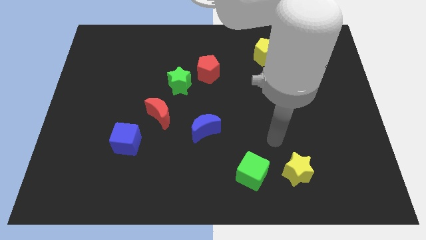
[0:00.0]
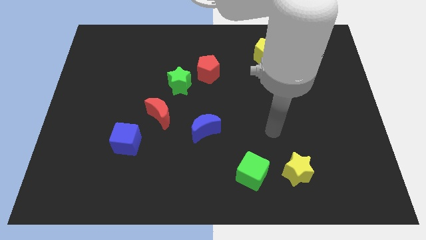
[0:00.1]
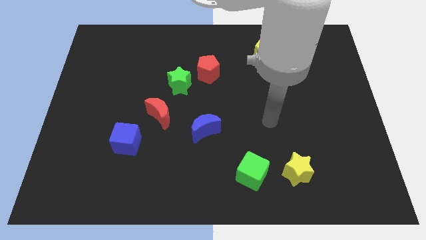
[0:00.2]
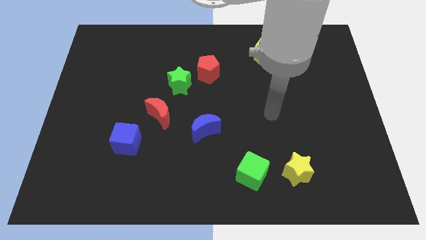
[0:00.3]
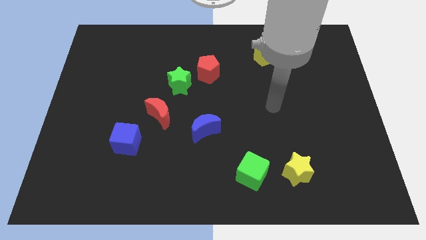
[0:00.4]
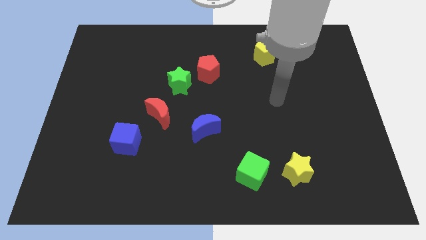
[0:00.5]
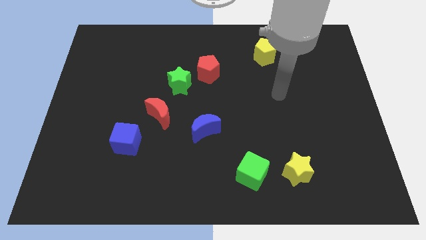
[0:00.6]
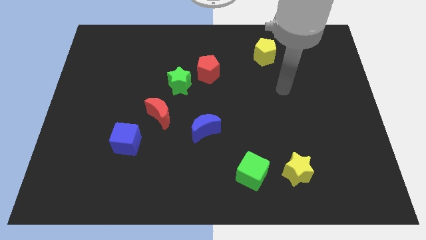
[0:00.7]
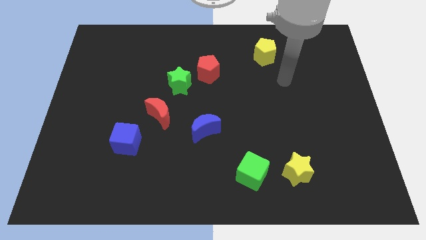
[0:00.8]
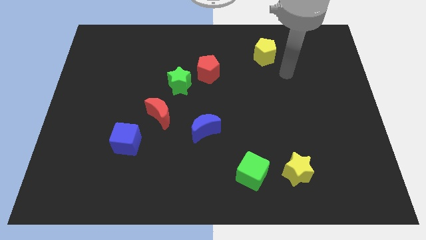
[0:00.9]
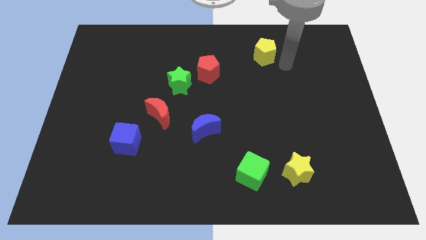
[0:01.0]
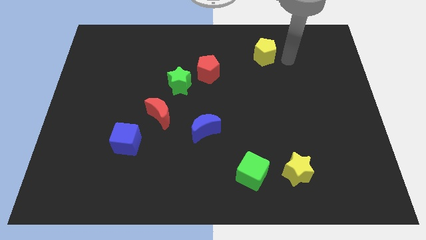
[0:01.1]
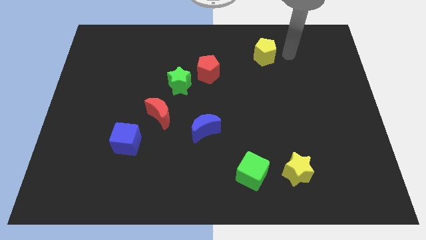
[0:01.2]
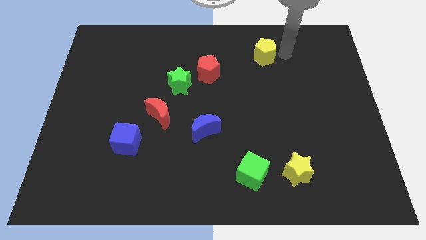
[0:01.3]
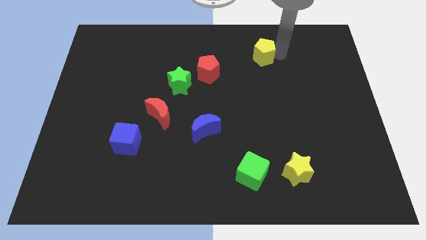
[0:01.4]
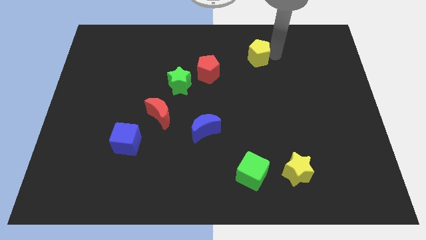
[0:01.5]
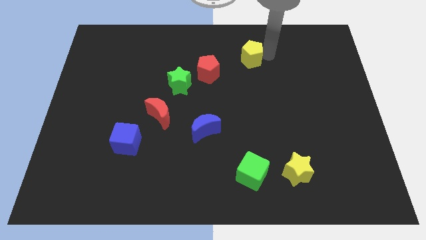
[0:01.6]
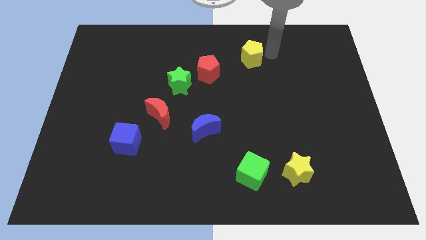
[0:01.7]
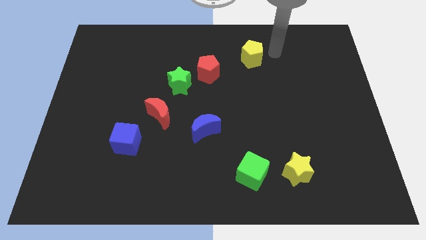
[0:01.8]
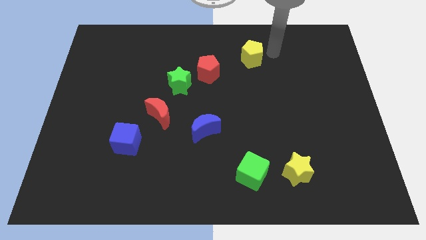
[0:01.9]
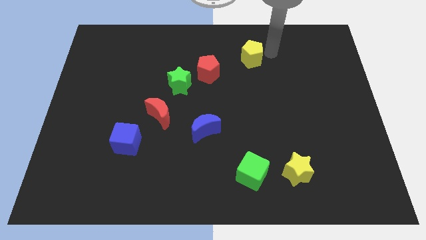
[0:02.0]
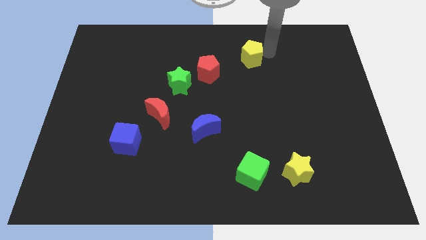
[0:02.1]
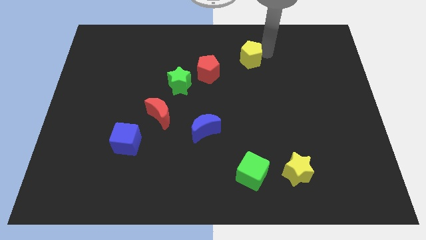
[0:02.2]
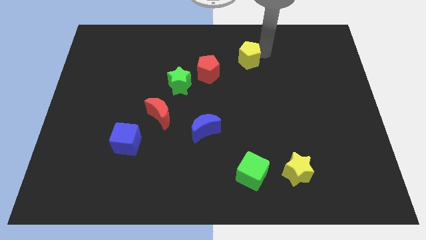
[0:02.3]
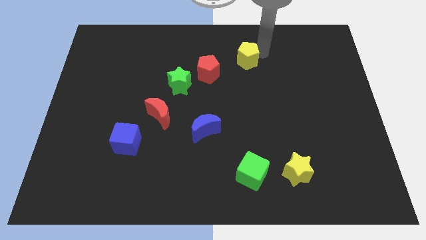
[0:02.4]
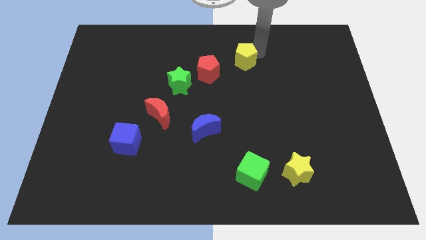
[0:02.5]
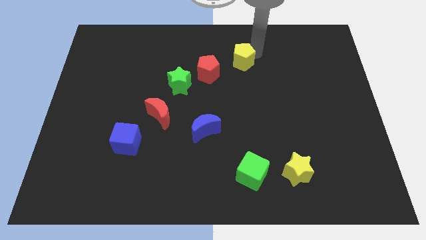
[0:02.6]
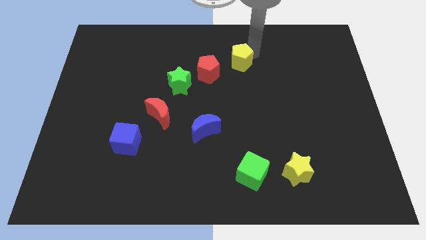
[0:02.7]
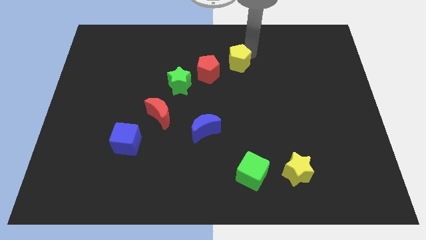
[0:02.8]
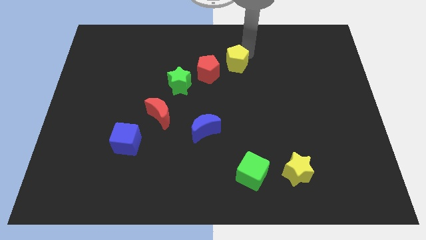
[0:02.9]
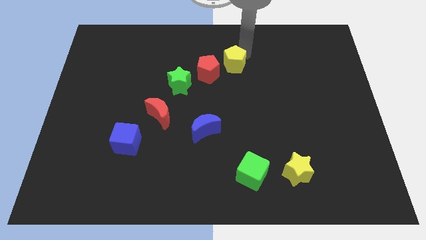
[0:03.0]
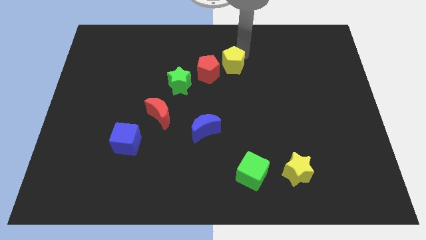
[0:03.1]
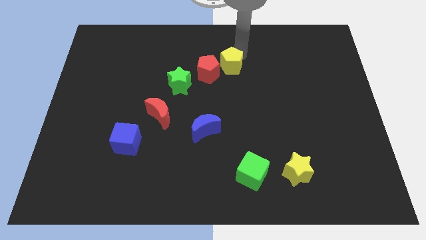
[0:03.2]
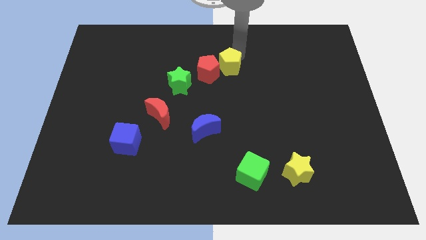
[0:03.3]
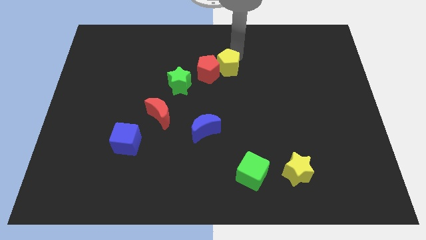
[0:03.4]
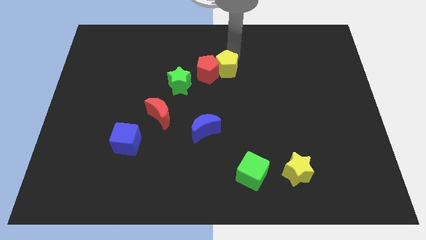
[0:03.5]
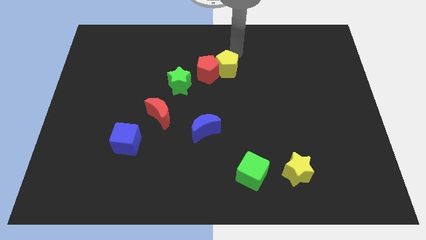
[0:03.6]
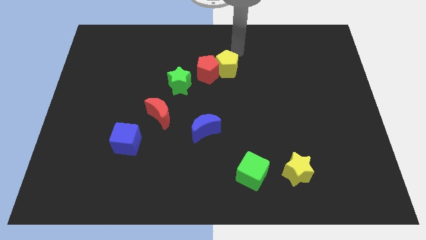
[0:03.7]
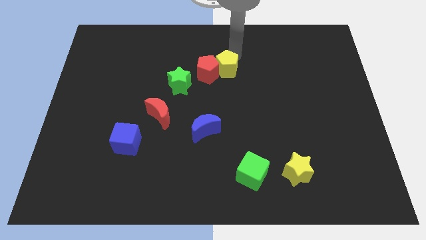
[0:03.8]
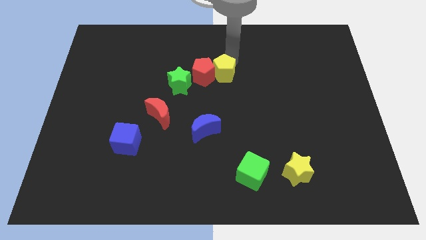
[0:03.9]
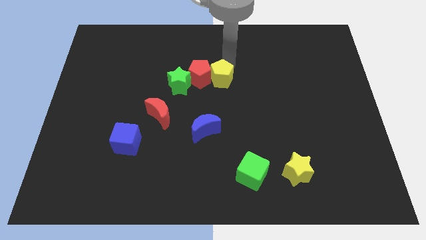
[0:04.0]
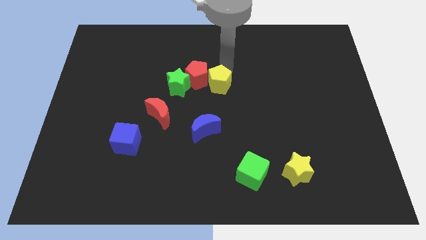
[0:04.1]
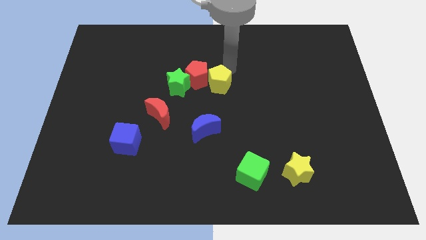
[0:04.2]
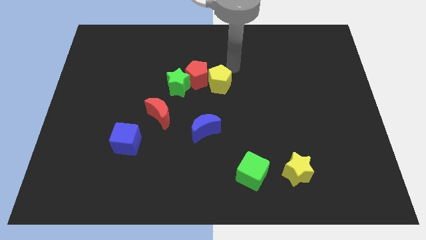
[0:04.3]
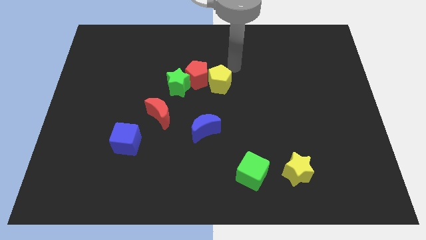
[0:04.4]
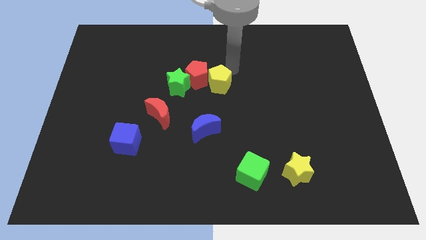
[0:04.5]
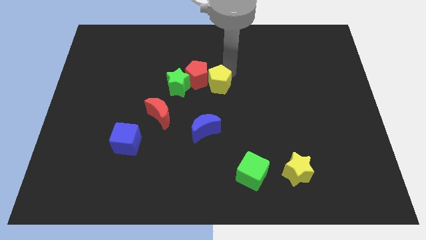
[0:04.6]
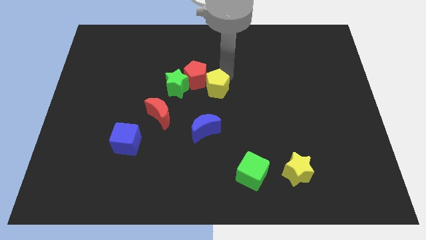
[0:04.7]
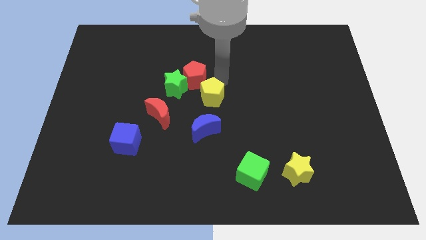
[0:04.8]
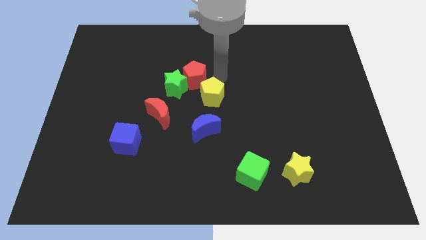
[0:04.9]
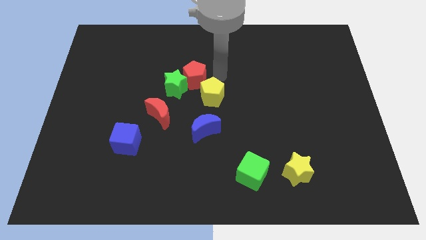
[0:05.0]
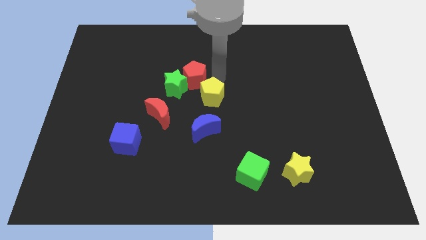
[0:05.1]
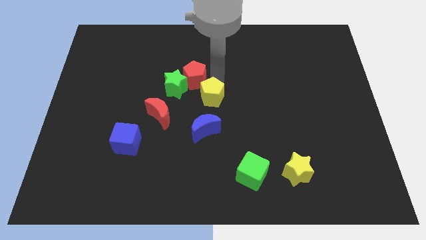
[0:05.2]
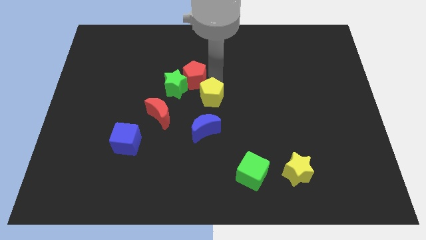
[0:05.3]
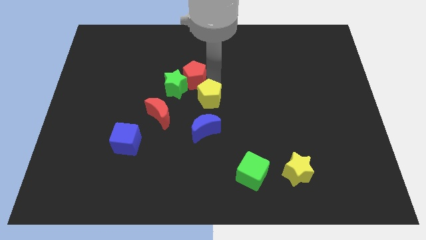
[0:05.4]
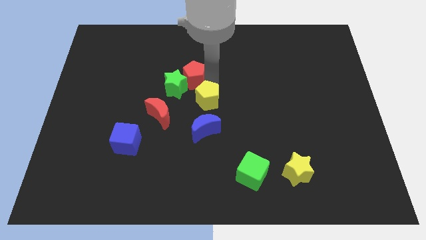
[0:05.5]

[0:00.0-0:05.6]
move the yellow pentagon to the right side of the red moon

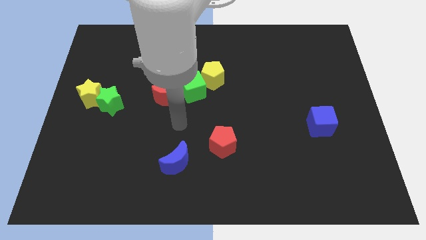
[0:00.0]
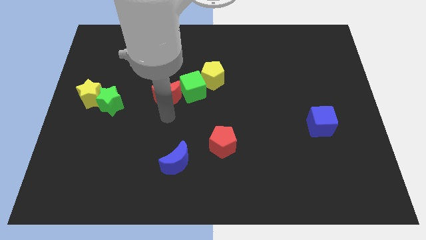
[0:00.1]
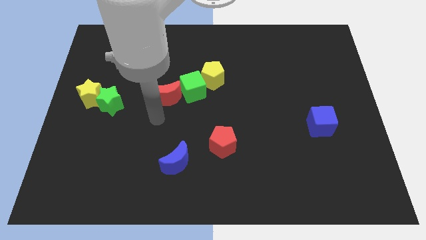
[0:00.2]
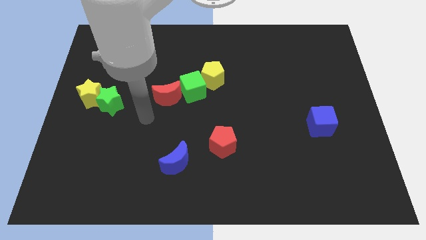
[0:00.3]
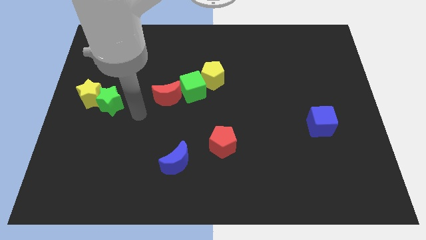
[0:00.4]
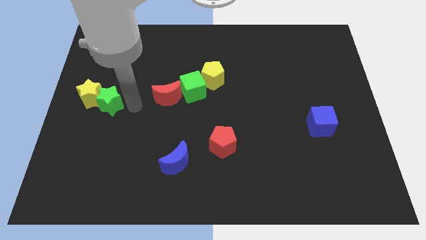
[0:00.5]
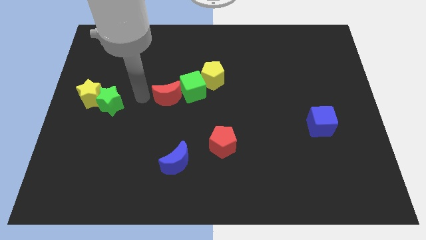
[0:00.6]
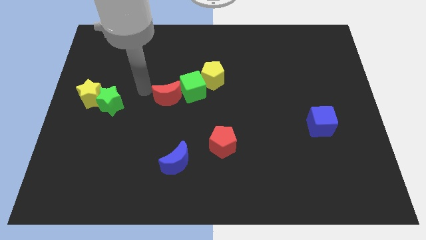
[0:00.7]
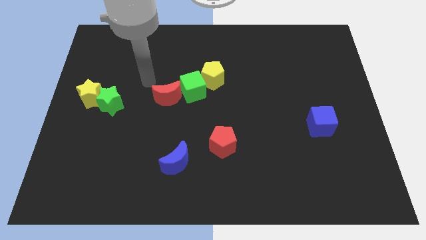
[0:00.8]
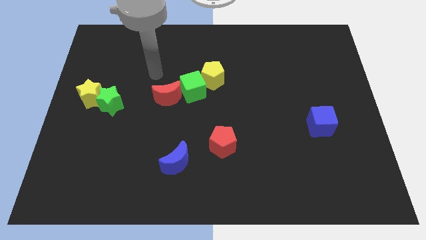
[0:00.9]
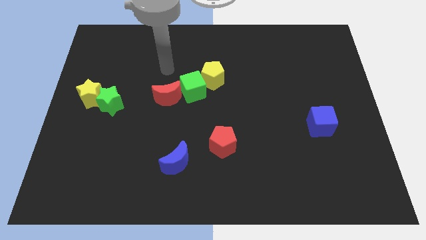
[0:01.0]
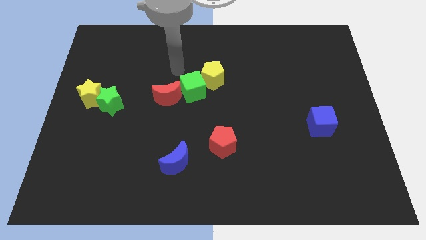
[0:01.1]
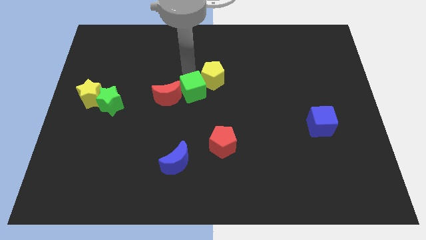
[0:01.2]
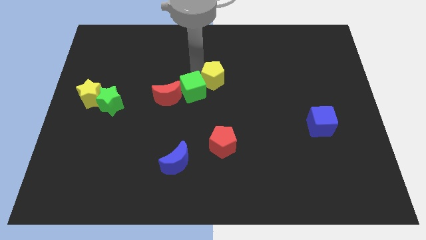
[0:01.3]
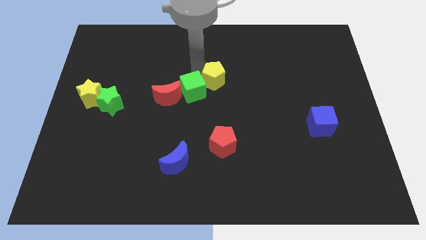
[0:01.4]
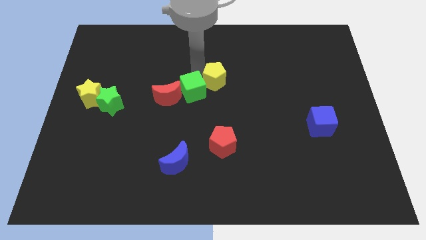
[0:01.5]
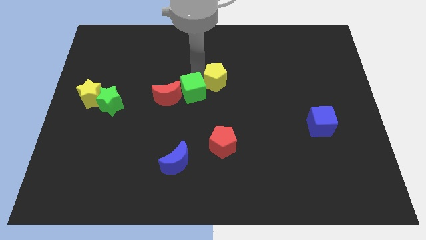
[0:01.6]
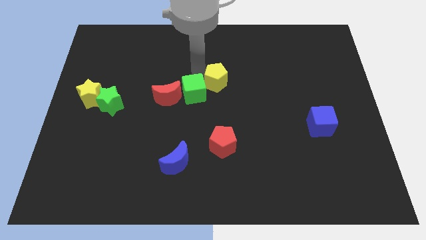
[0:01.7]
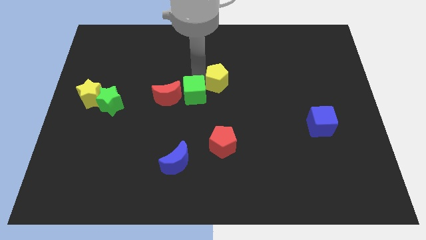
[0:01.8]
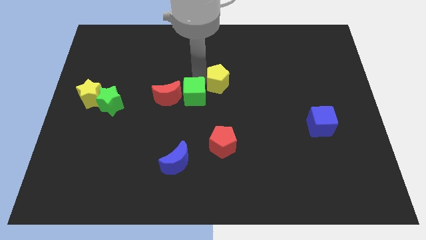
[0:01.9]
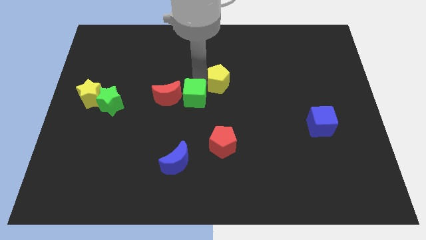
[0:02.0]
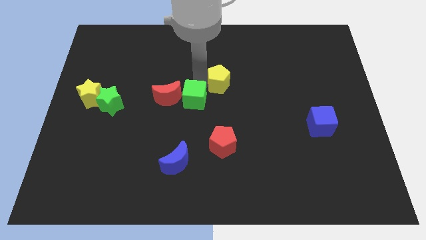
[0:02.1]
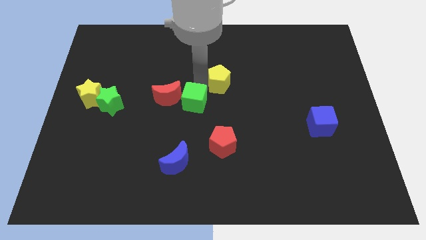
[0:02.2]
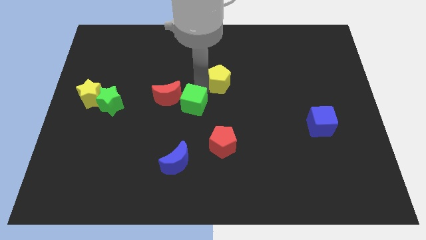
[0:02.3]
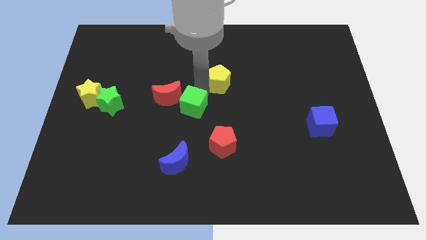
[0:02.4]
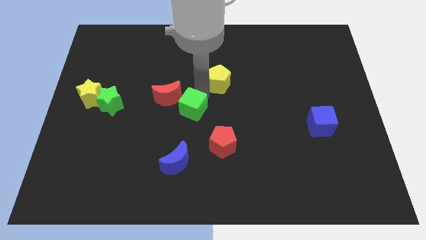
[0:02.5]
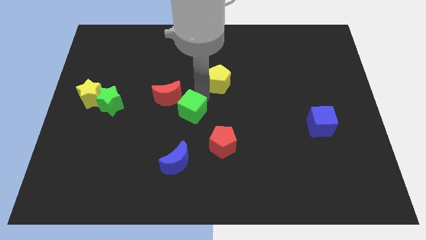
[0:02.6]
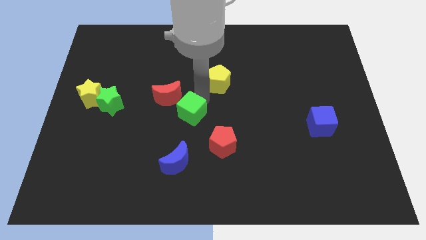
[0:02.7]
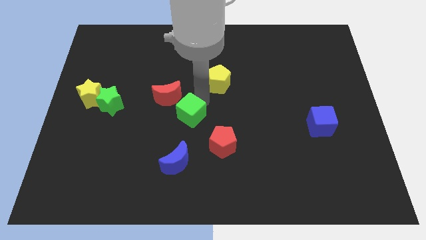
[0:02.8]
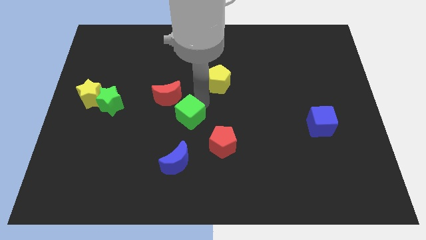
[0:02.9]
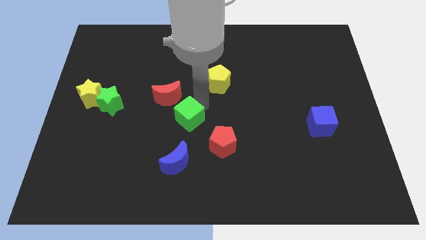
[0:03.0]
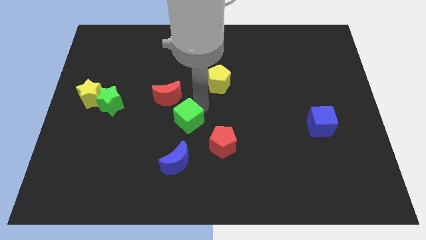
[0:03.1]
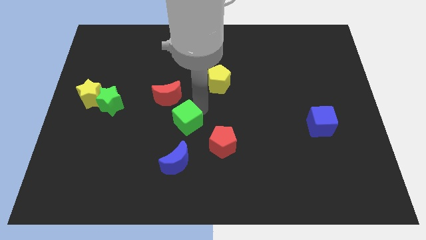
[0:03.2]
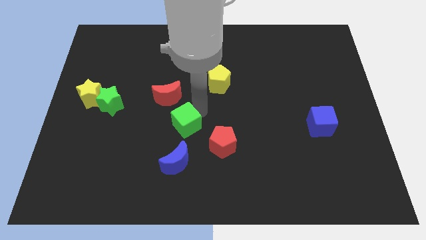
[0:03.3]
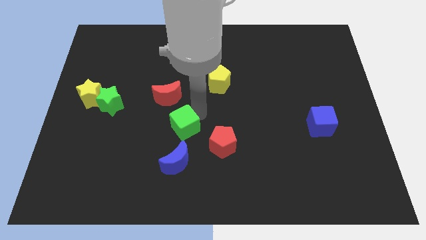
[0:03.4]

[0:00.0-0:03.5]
move the green cube just left of the red pentagon
